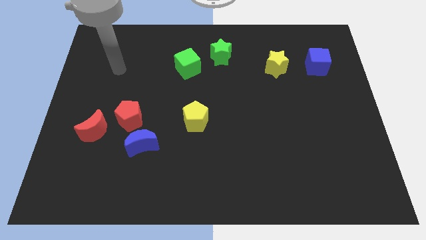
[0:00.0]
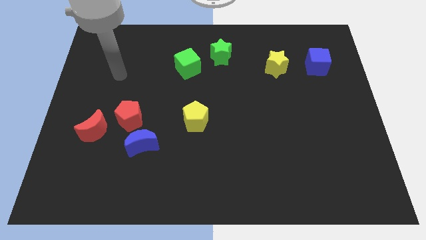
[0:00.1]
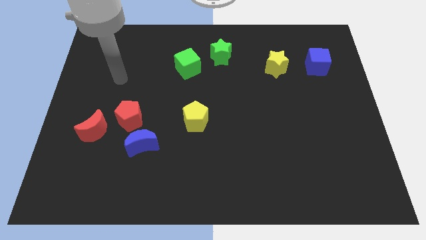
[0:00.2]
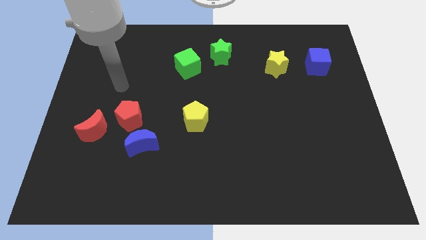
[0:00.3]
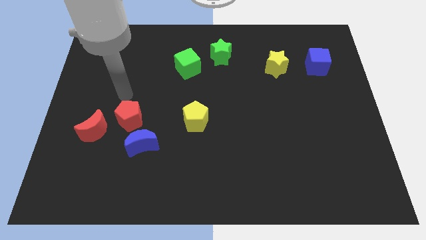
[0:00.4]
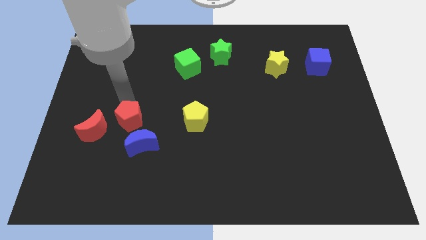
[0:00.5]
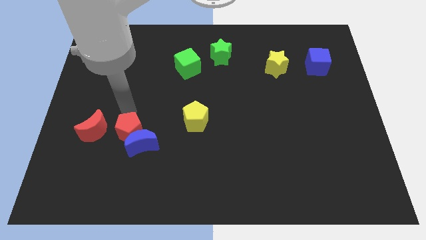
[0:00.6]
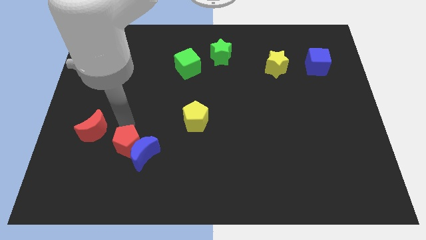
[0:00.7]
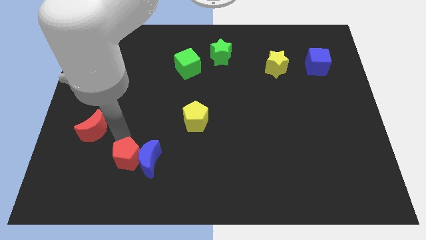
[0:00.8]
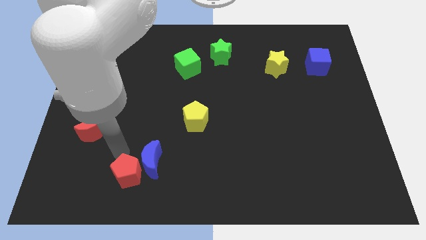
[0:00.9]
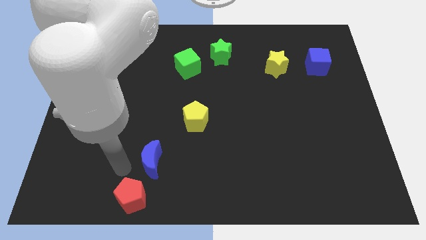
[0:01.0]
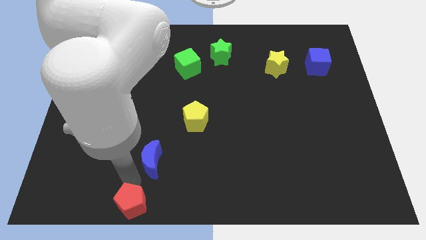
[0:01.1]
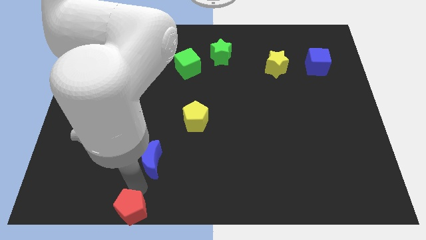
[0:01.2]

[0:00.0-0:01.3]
pull the blue moon apart from the red pentagon

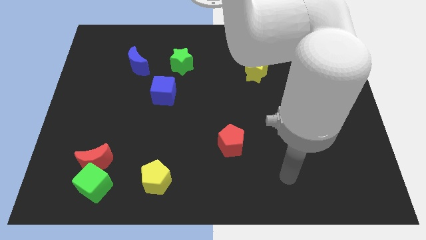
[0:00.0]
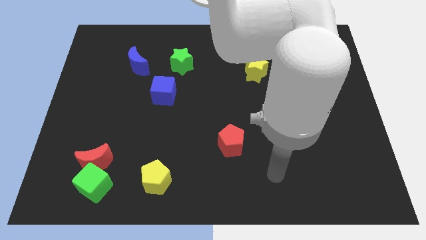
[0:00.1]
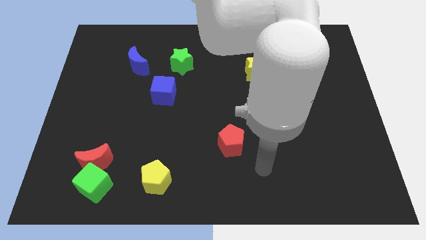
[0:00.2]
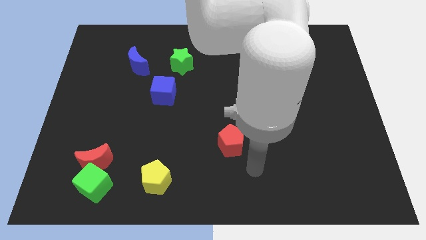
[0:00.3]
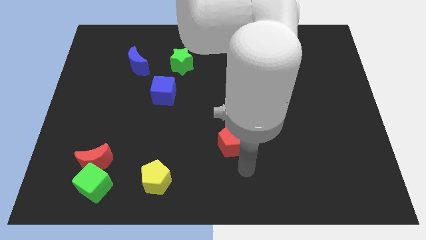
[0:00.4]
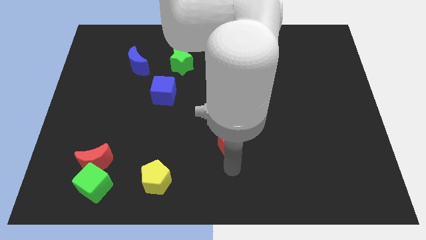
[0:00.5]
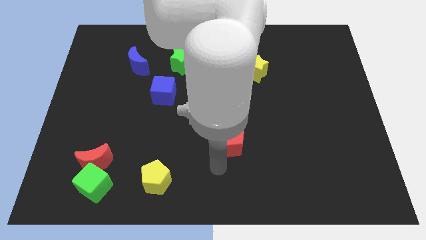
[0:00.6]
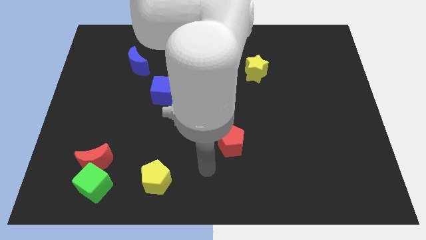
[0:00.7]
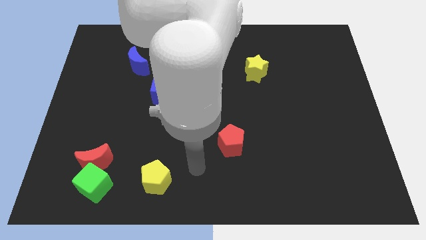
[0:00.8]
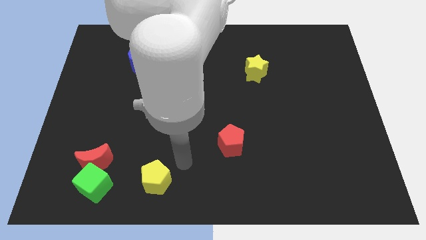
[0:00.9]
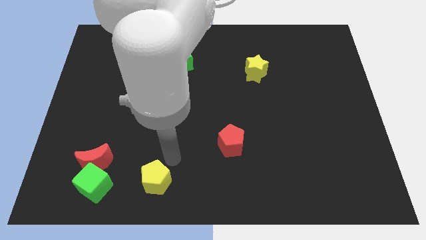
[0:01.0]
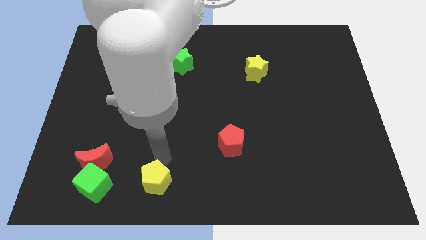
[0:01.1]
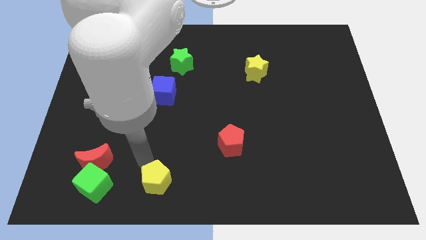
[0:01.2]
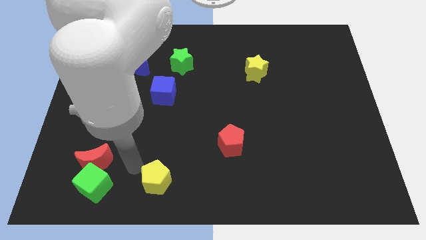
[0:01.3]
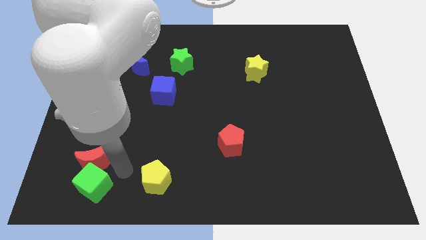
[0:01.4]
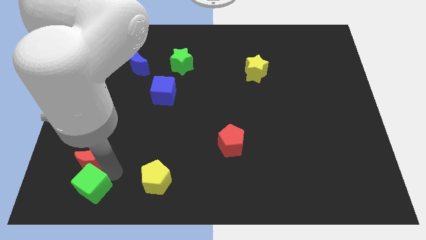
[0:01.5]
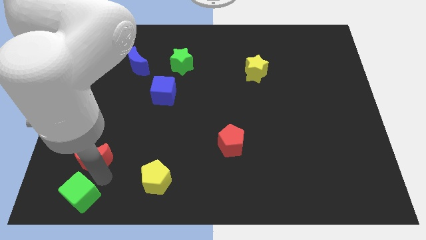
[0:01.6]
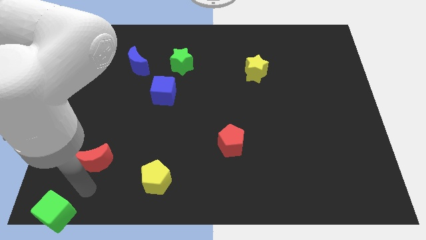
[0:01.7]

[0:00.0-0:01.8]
pull the red moon apart from the green cube

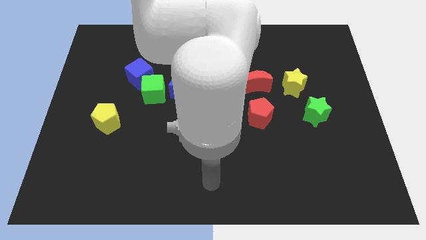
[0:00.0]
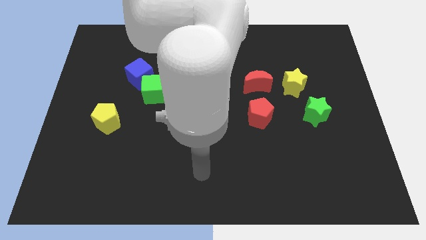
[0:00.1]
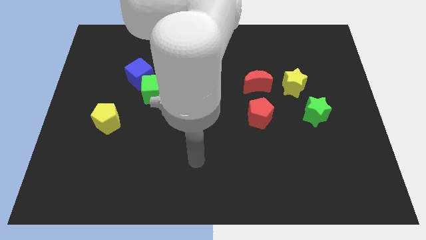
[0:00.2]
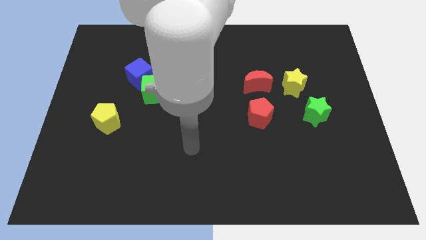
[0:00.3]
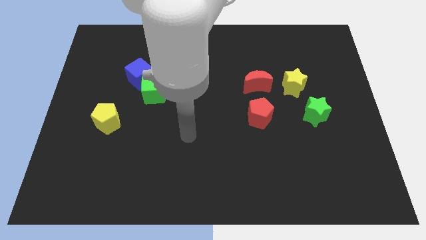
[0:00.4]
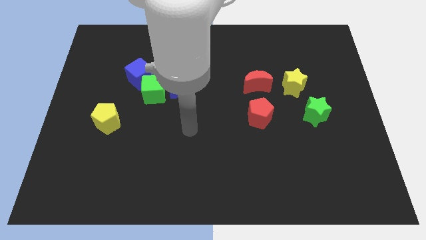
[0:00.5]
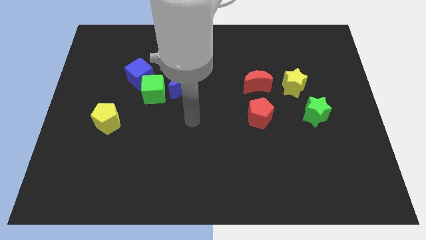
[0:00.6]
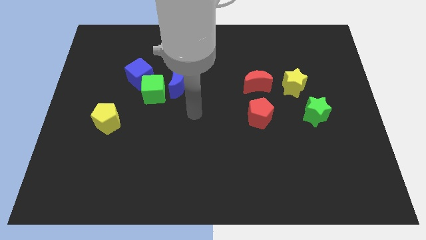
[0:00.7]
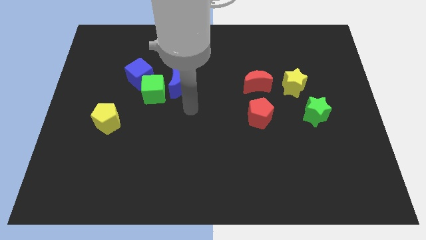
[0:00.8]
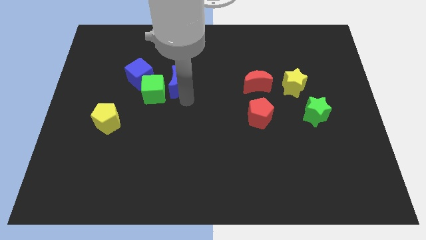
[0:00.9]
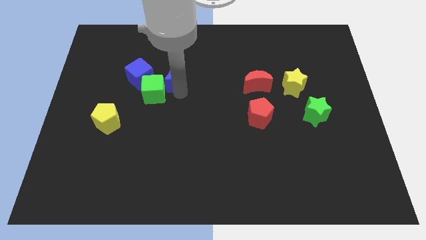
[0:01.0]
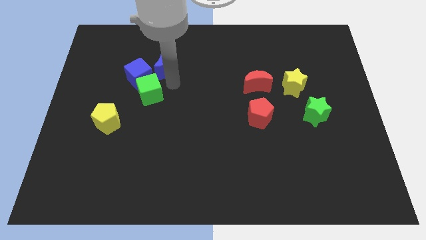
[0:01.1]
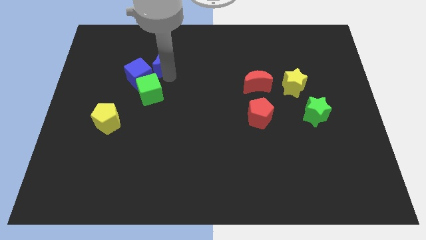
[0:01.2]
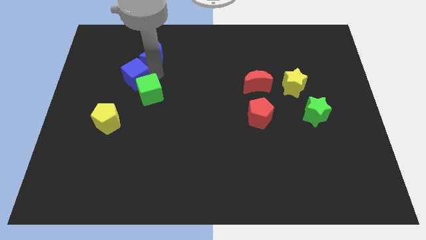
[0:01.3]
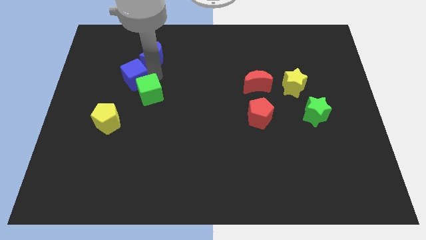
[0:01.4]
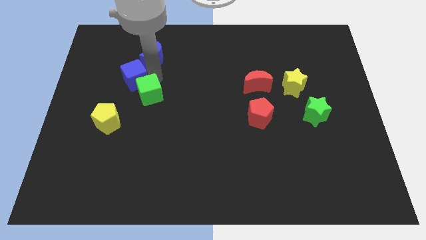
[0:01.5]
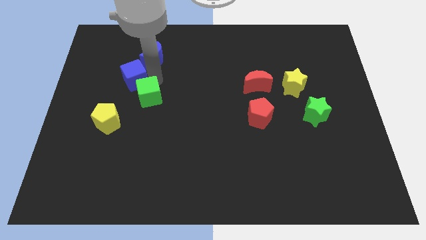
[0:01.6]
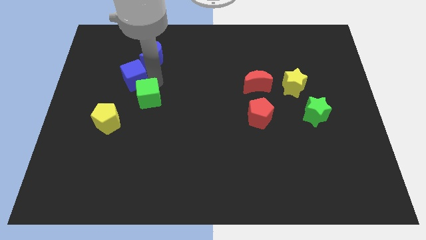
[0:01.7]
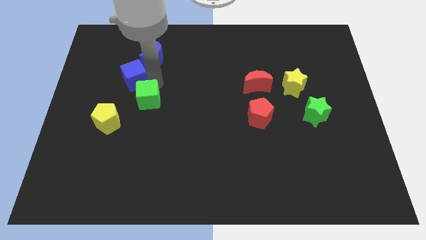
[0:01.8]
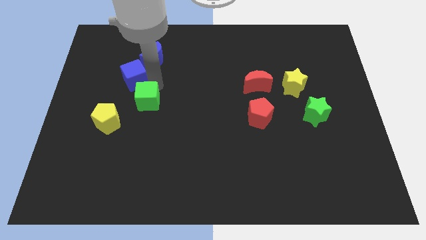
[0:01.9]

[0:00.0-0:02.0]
separate the green cube from the blue moon and blue cube

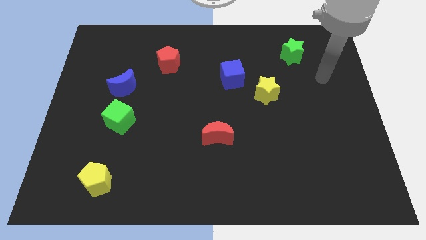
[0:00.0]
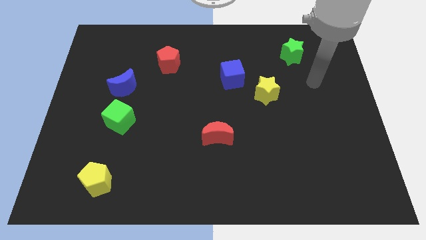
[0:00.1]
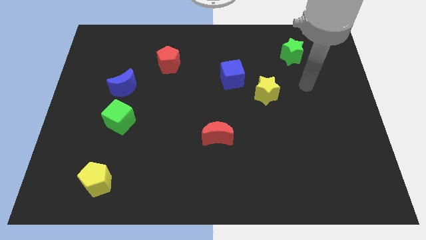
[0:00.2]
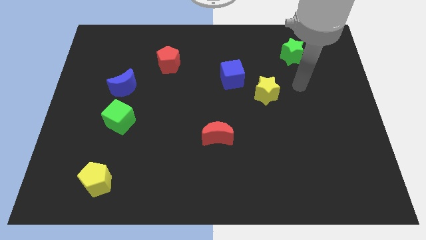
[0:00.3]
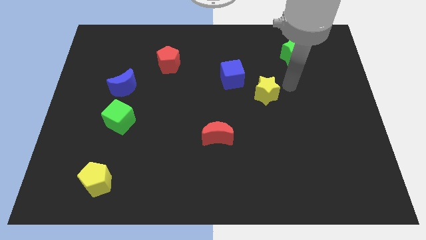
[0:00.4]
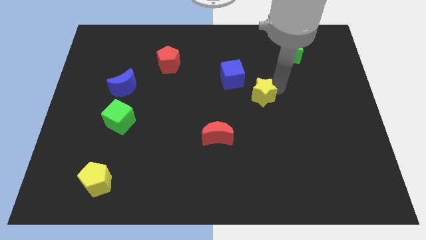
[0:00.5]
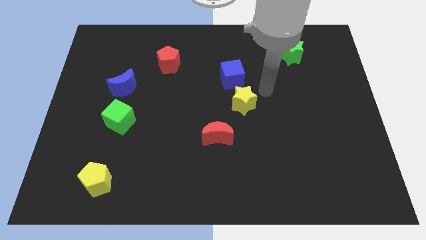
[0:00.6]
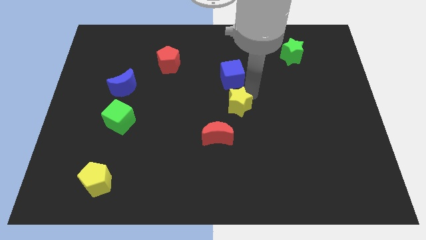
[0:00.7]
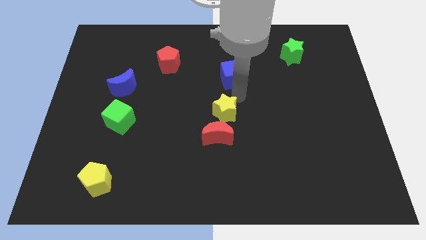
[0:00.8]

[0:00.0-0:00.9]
move the blue cube away from the yellow star

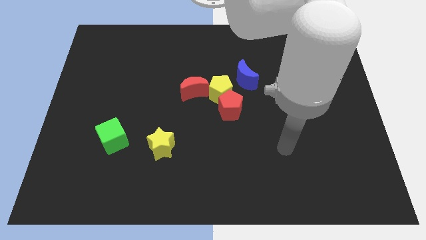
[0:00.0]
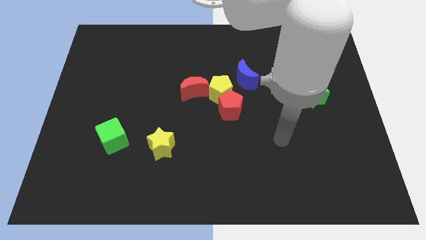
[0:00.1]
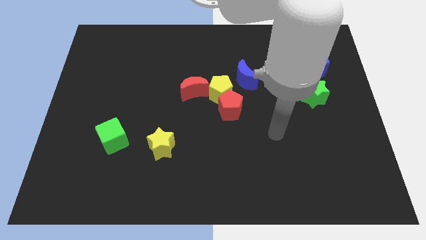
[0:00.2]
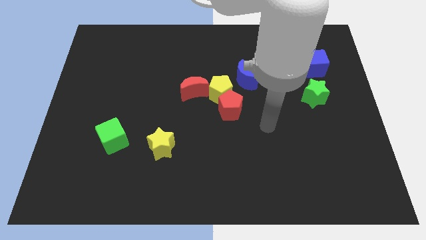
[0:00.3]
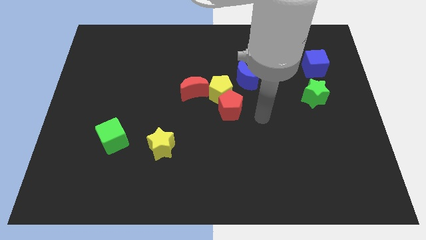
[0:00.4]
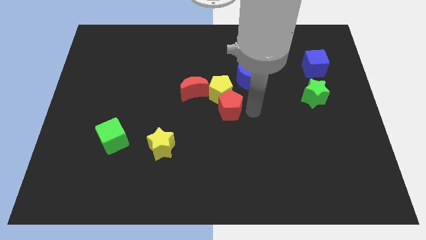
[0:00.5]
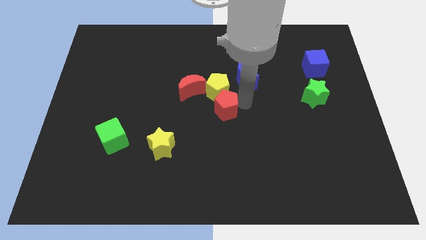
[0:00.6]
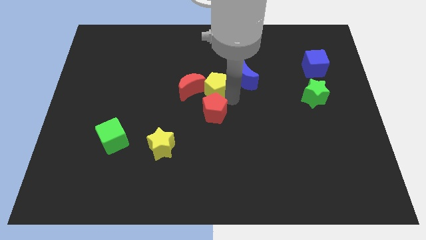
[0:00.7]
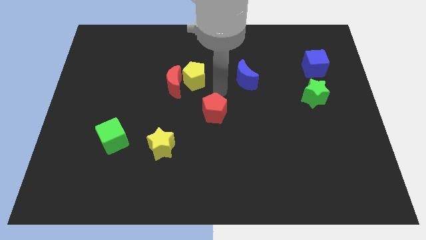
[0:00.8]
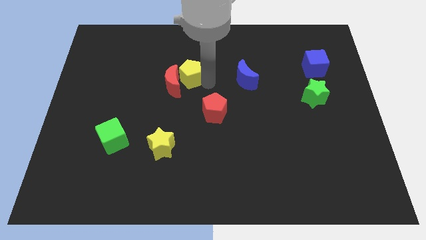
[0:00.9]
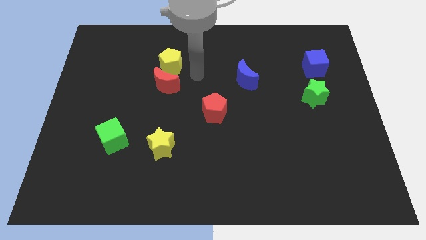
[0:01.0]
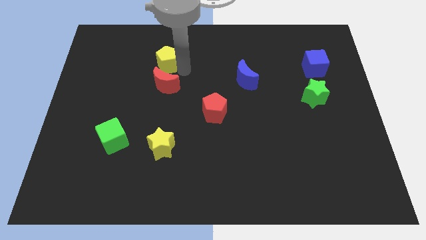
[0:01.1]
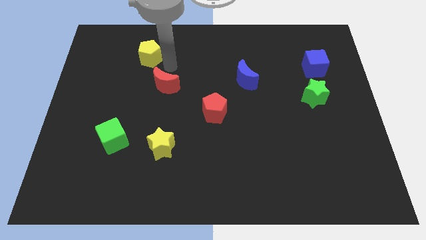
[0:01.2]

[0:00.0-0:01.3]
move the red moon away from the yellow pentagon

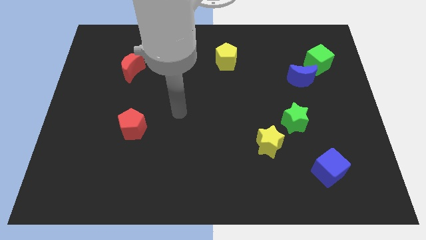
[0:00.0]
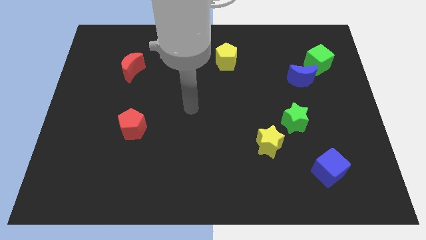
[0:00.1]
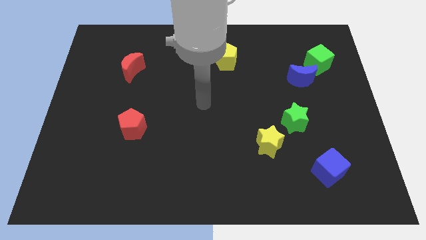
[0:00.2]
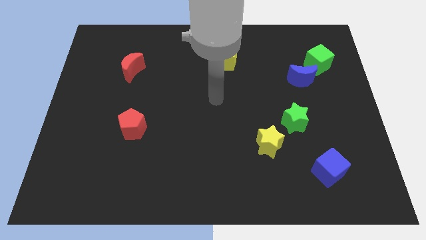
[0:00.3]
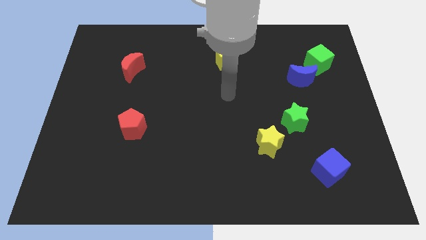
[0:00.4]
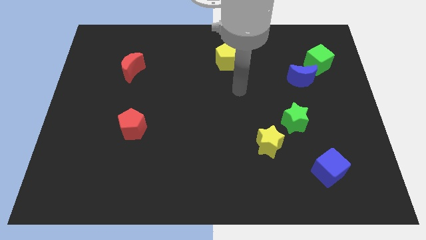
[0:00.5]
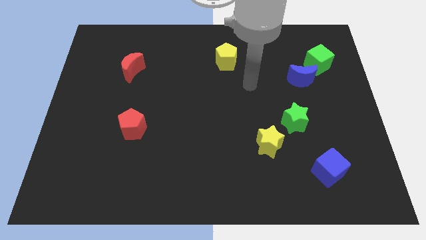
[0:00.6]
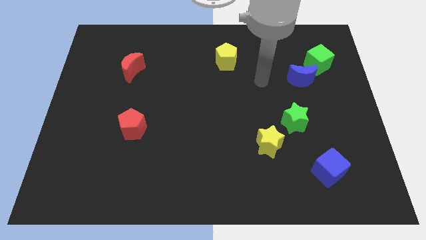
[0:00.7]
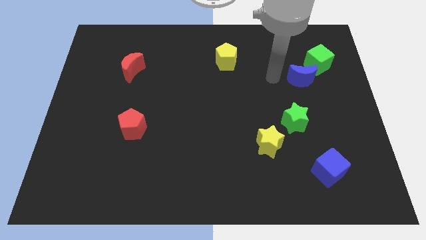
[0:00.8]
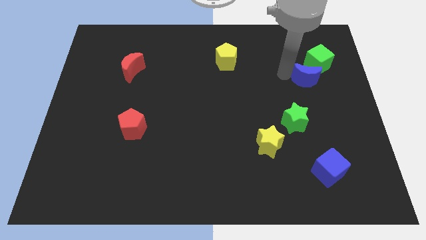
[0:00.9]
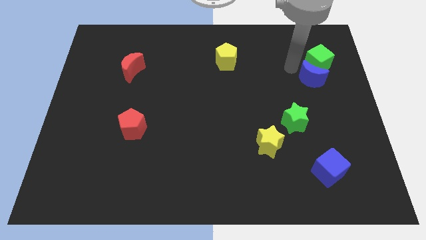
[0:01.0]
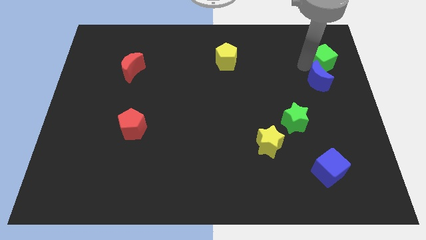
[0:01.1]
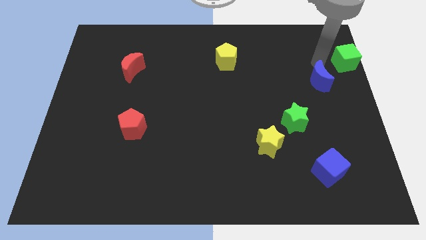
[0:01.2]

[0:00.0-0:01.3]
move the blue moon away from the green cube

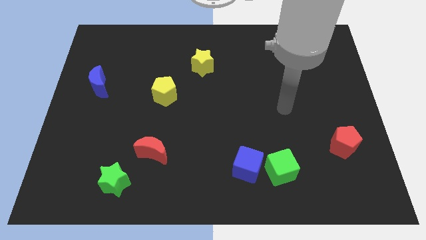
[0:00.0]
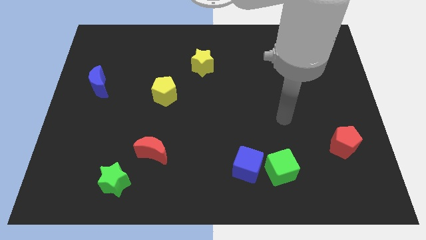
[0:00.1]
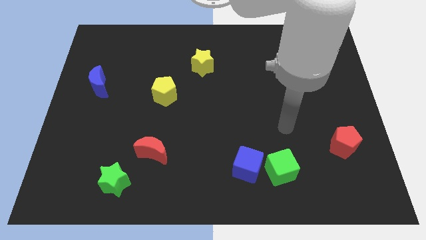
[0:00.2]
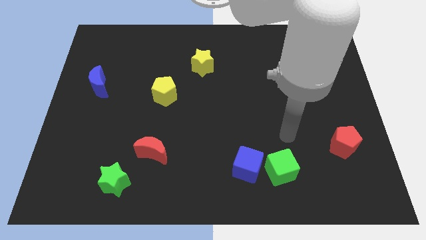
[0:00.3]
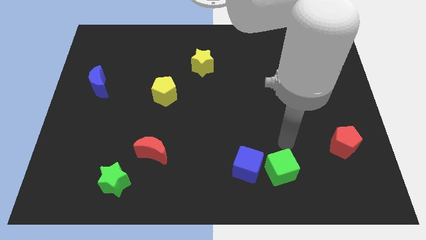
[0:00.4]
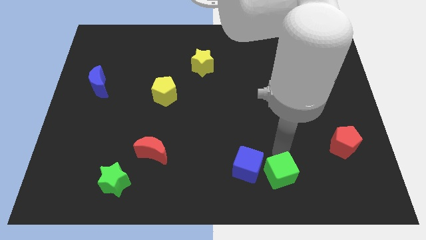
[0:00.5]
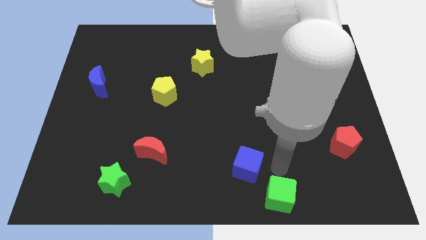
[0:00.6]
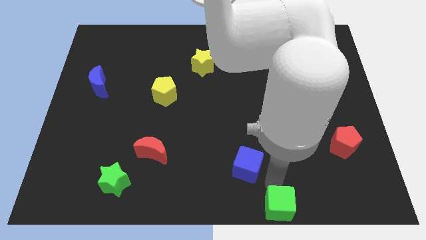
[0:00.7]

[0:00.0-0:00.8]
separate the blue cube from the green cube
